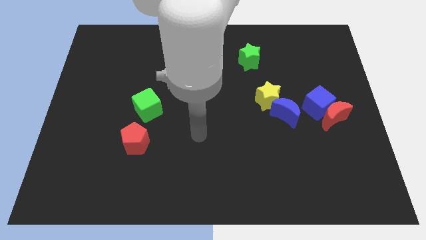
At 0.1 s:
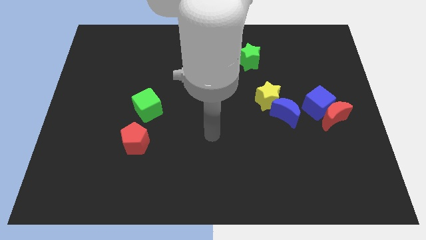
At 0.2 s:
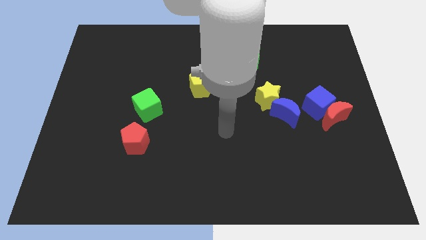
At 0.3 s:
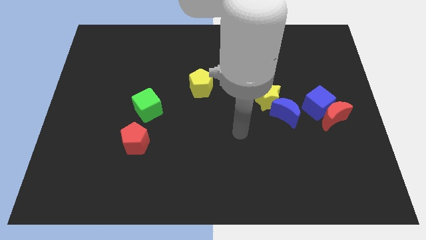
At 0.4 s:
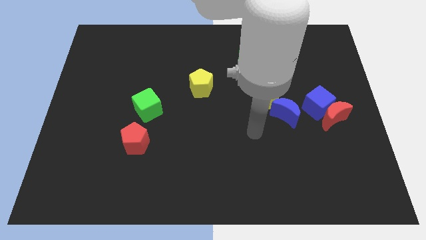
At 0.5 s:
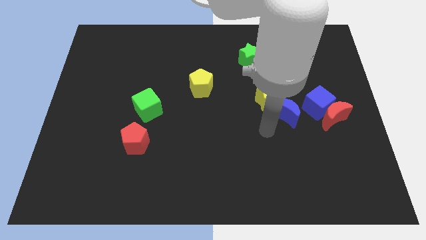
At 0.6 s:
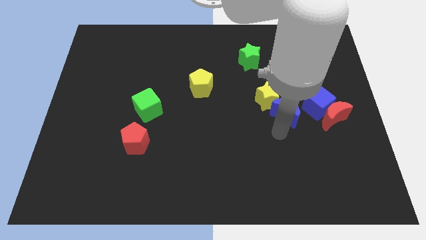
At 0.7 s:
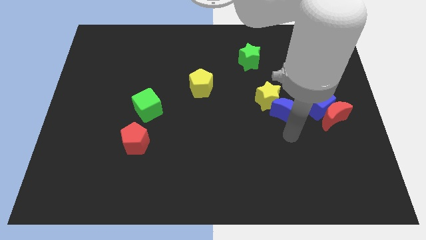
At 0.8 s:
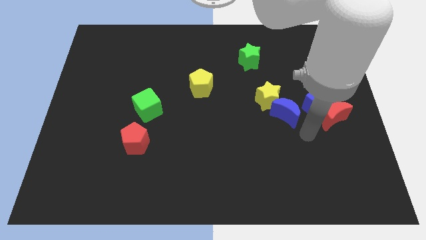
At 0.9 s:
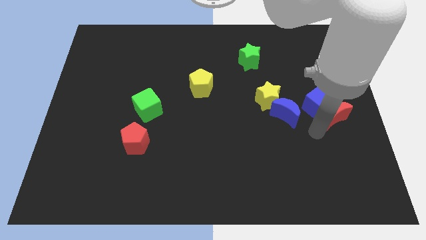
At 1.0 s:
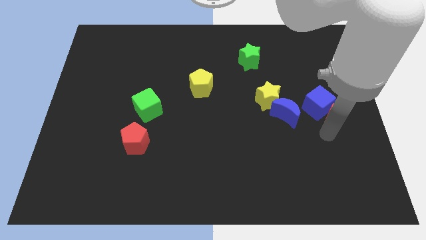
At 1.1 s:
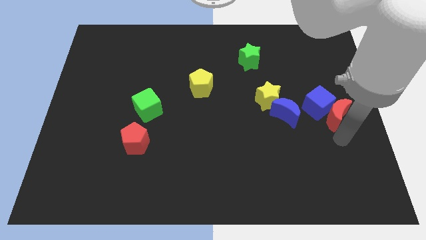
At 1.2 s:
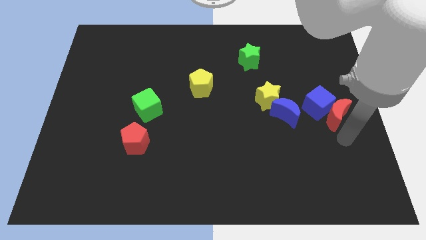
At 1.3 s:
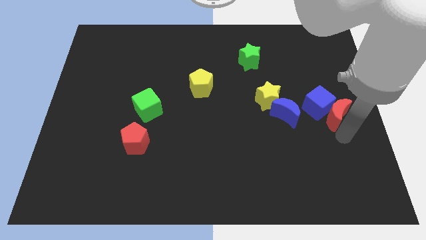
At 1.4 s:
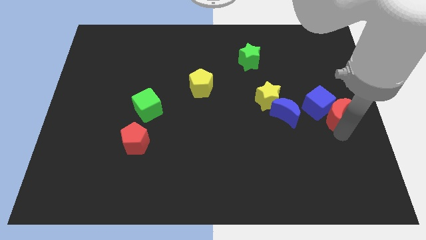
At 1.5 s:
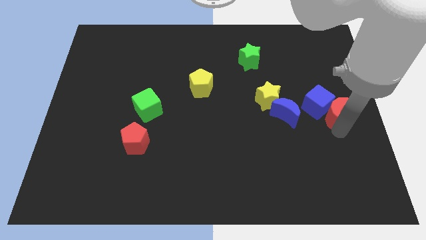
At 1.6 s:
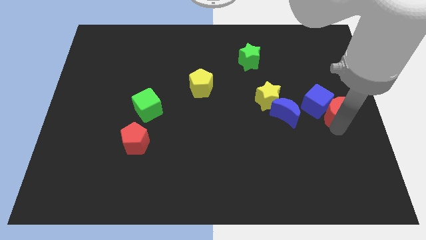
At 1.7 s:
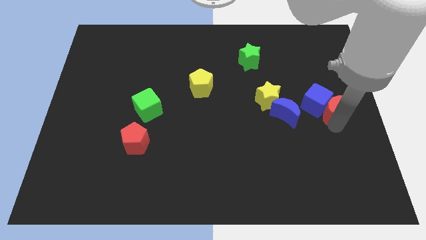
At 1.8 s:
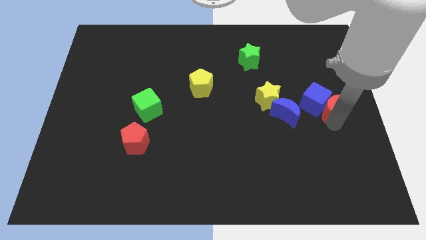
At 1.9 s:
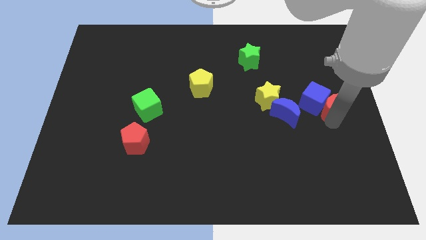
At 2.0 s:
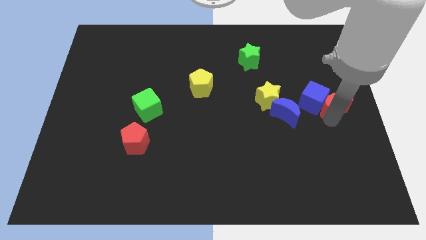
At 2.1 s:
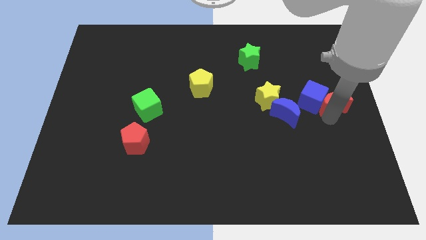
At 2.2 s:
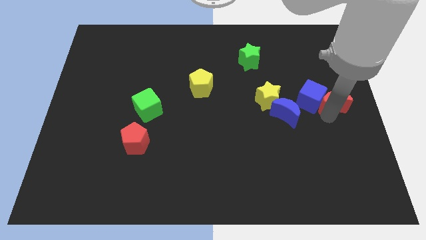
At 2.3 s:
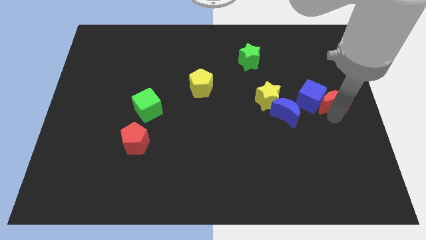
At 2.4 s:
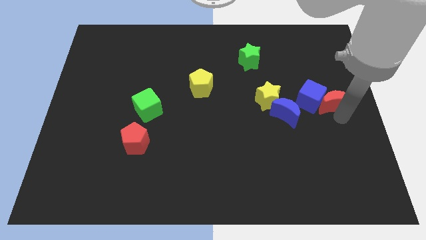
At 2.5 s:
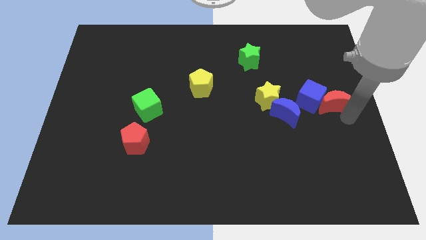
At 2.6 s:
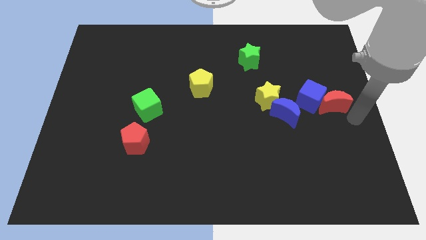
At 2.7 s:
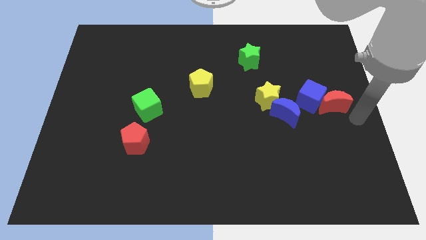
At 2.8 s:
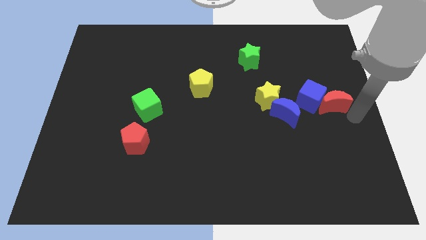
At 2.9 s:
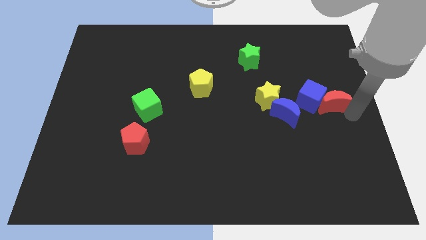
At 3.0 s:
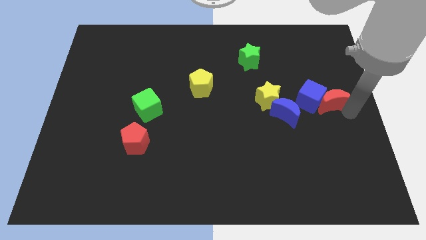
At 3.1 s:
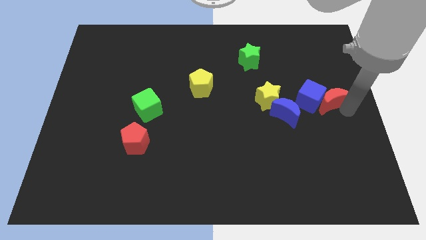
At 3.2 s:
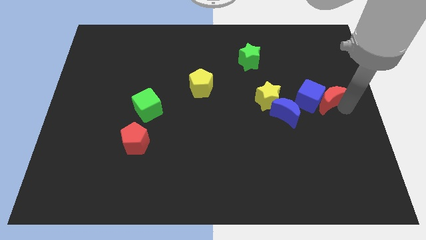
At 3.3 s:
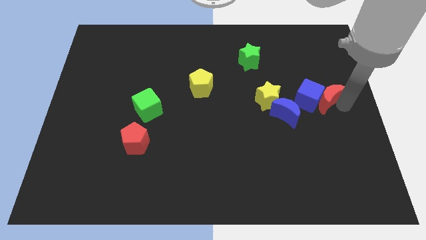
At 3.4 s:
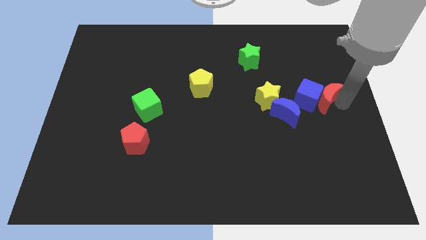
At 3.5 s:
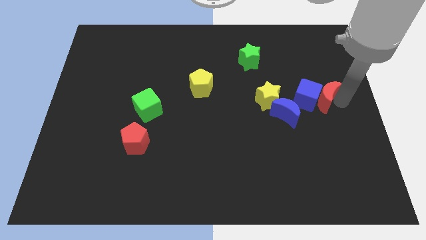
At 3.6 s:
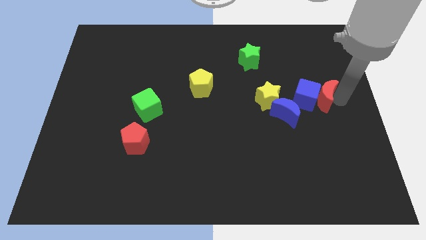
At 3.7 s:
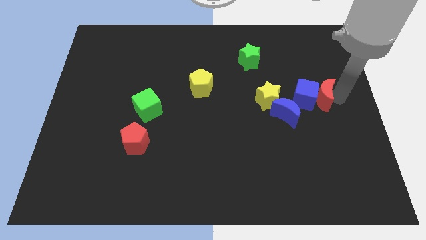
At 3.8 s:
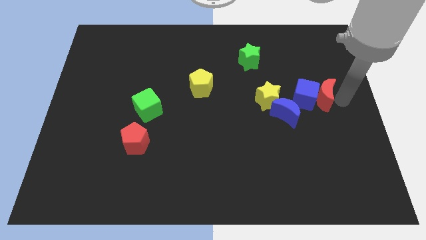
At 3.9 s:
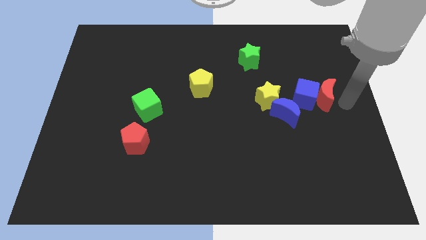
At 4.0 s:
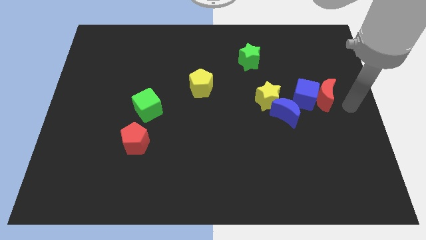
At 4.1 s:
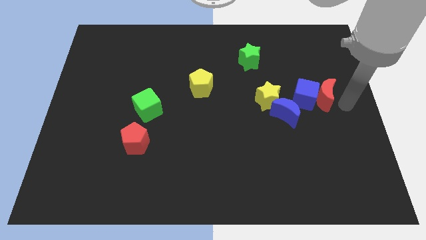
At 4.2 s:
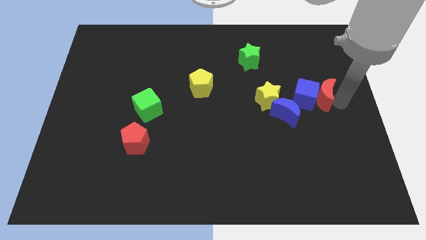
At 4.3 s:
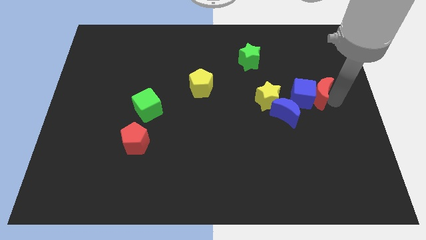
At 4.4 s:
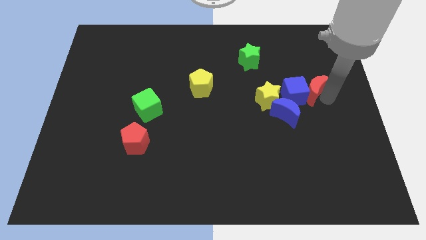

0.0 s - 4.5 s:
move the red moon a little bit upwards and left diagonally

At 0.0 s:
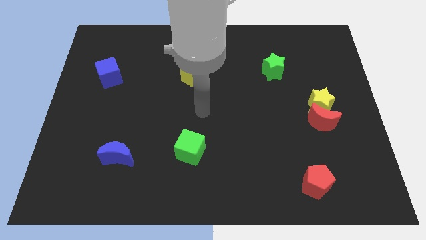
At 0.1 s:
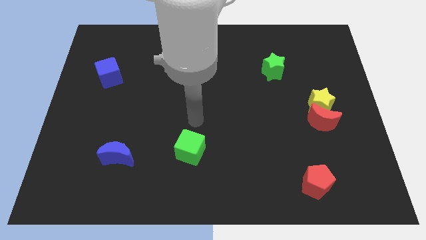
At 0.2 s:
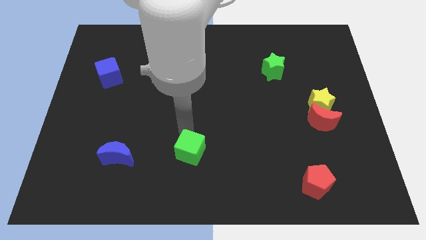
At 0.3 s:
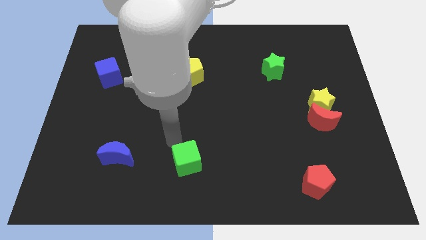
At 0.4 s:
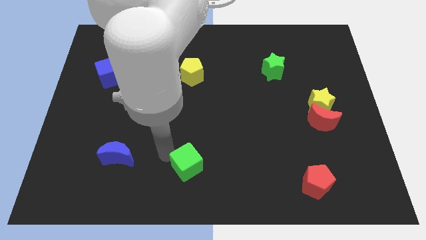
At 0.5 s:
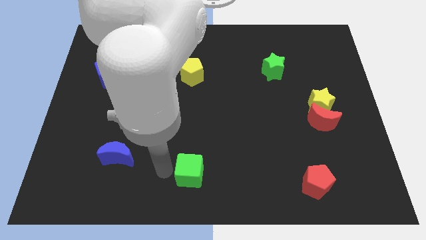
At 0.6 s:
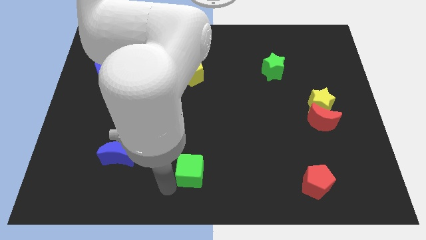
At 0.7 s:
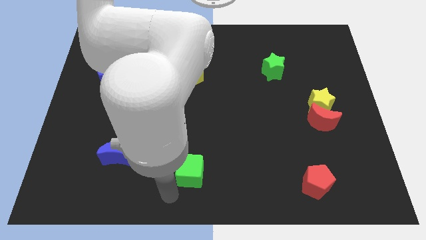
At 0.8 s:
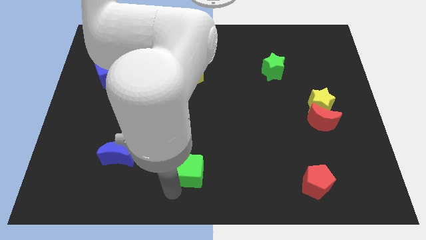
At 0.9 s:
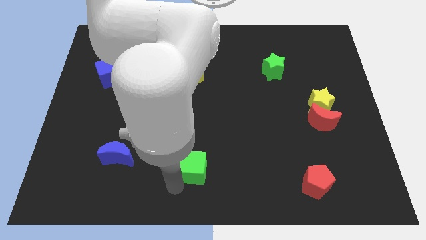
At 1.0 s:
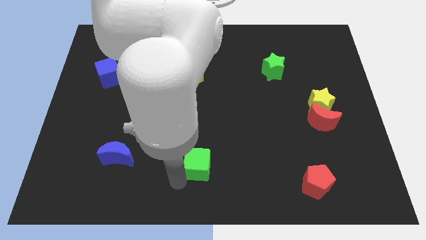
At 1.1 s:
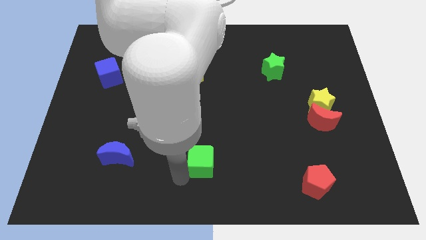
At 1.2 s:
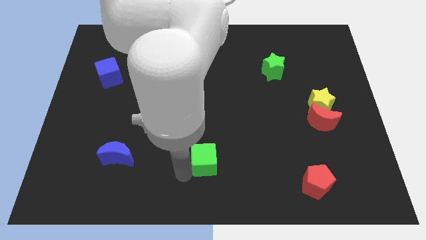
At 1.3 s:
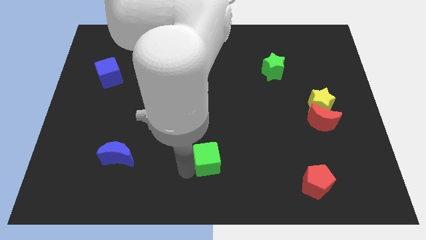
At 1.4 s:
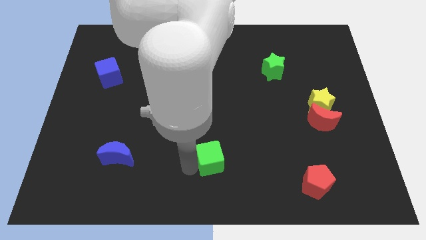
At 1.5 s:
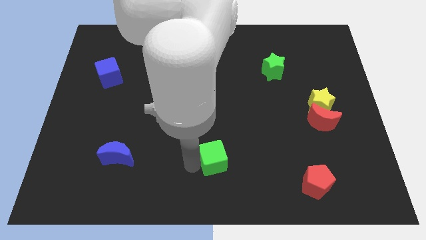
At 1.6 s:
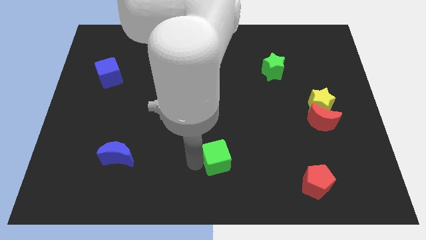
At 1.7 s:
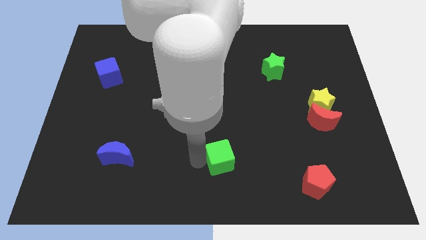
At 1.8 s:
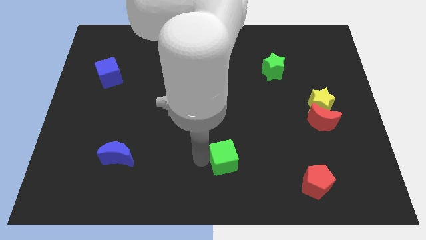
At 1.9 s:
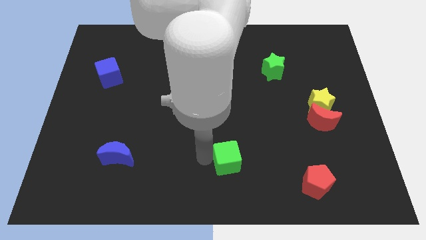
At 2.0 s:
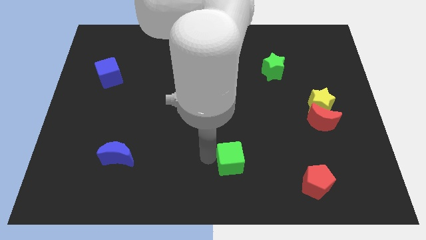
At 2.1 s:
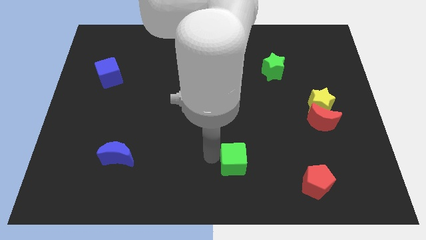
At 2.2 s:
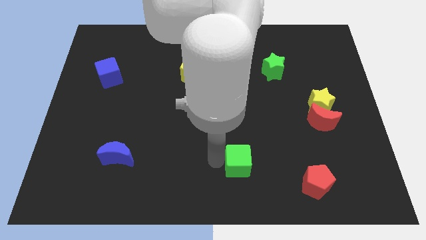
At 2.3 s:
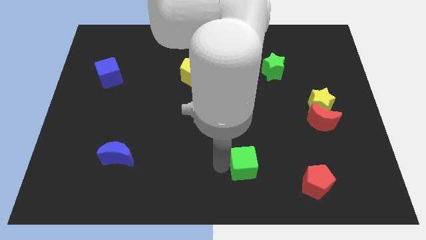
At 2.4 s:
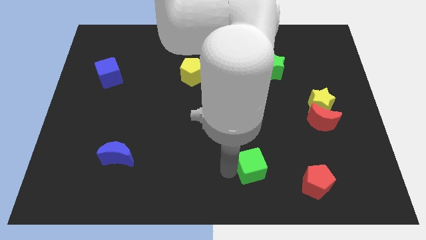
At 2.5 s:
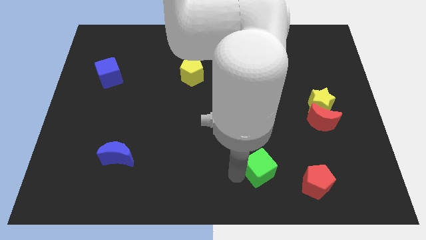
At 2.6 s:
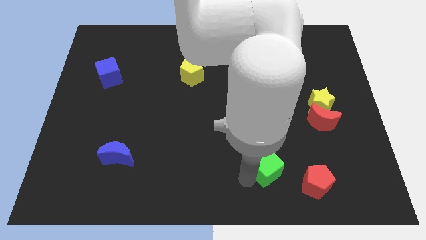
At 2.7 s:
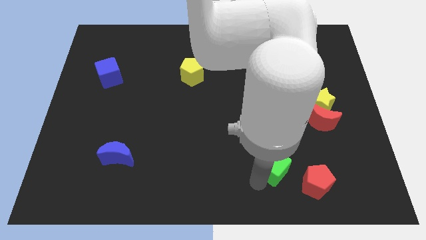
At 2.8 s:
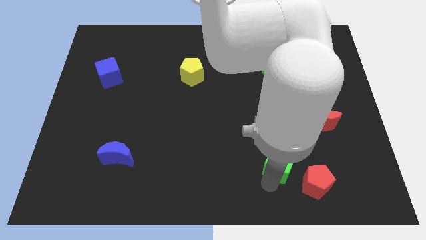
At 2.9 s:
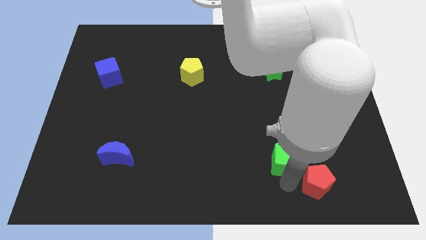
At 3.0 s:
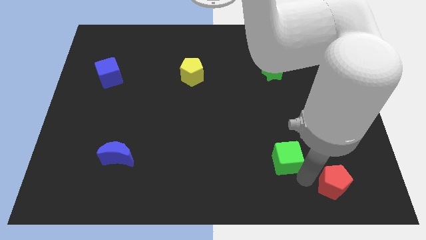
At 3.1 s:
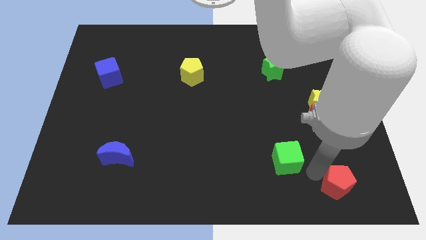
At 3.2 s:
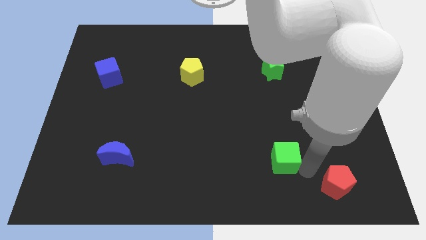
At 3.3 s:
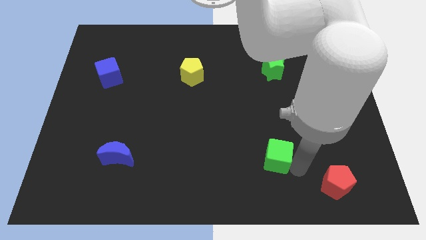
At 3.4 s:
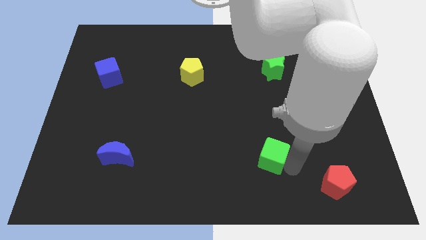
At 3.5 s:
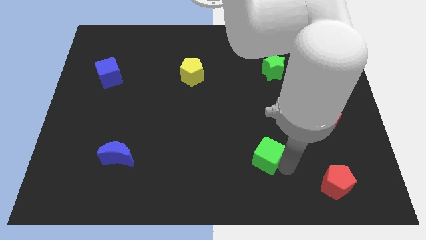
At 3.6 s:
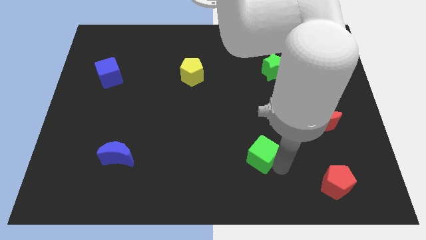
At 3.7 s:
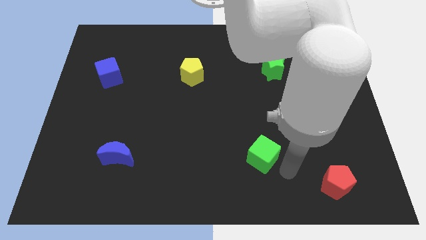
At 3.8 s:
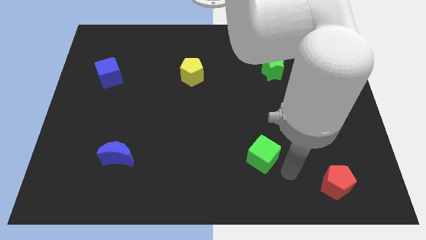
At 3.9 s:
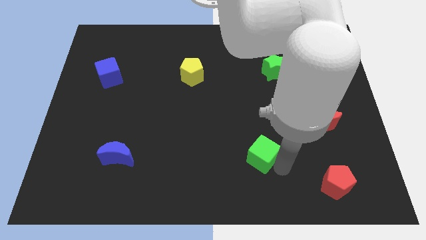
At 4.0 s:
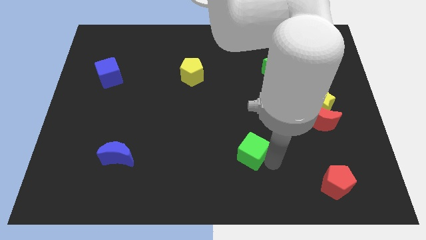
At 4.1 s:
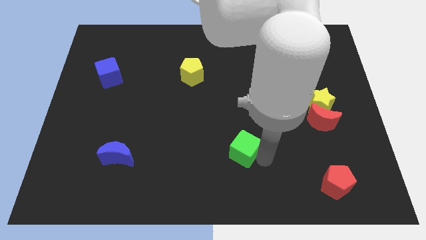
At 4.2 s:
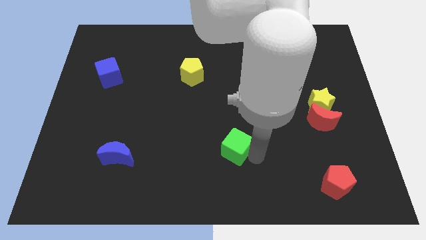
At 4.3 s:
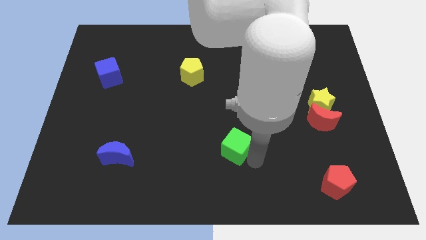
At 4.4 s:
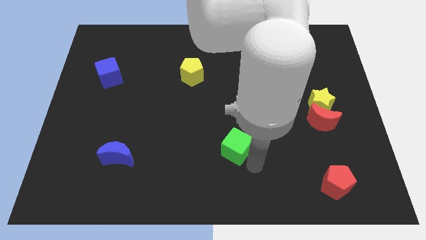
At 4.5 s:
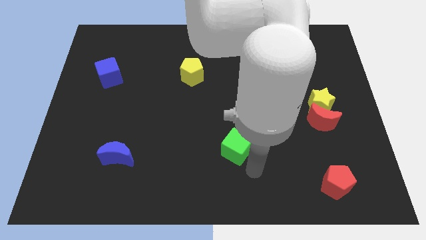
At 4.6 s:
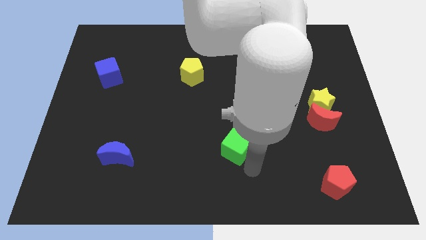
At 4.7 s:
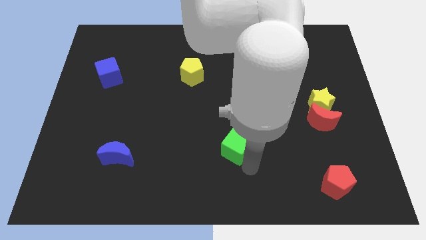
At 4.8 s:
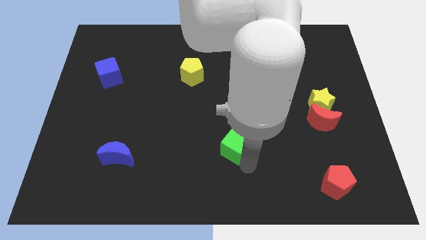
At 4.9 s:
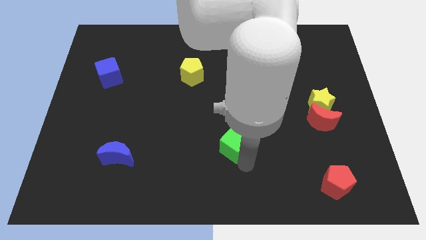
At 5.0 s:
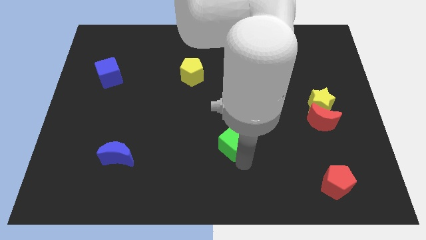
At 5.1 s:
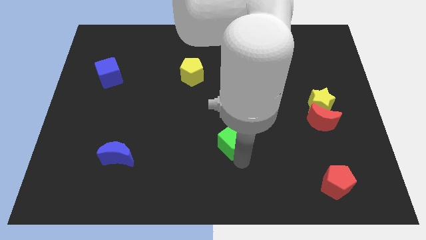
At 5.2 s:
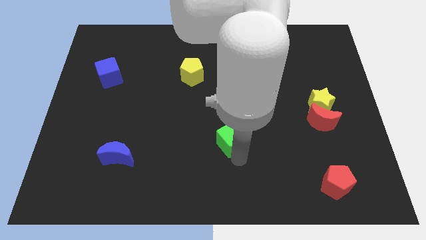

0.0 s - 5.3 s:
slide the green cube up and right a little
